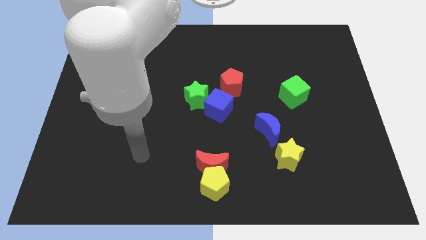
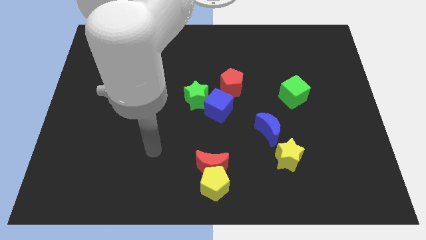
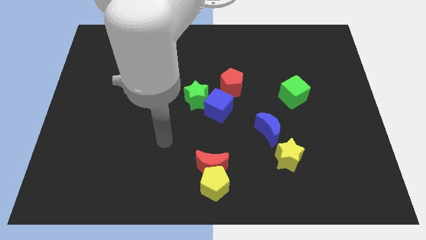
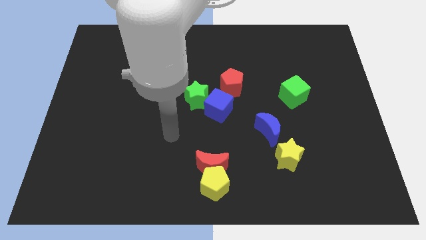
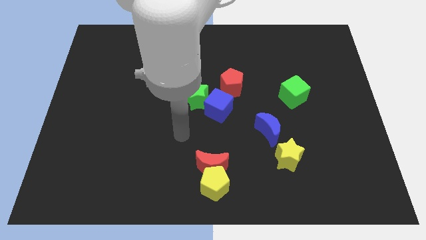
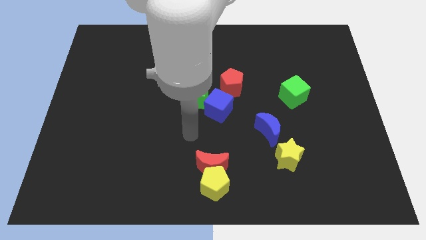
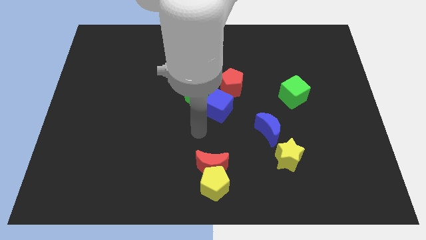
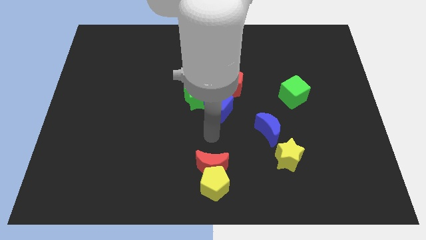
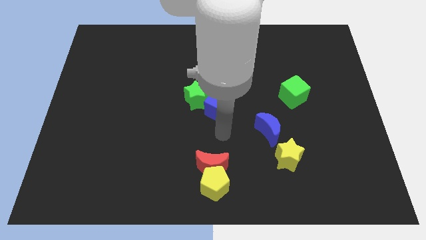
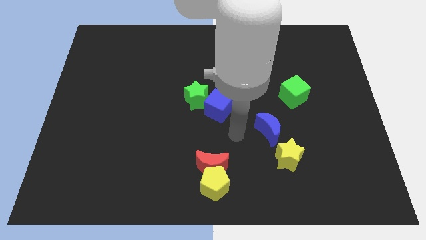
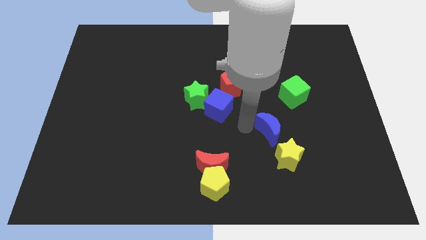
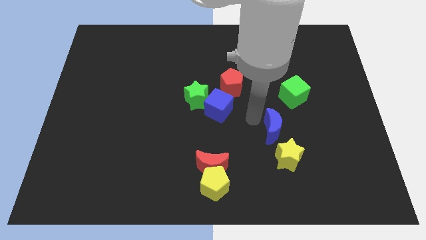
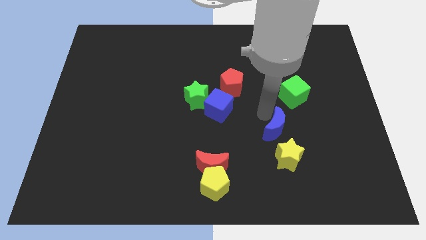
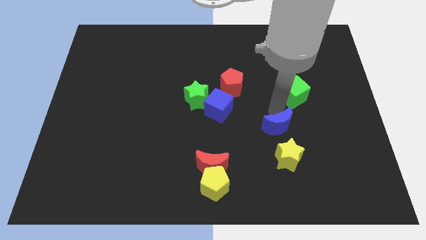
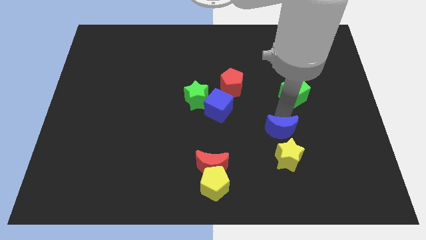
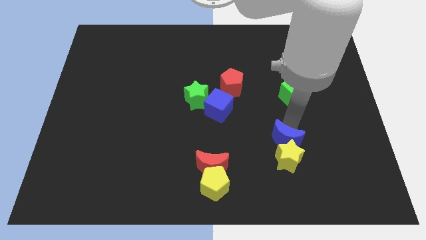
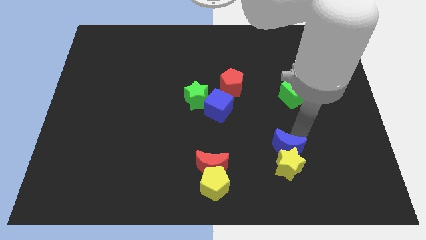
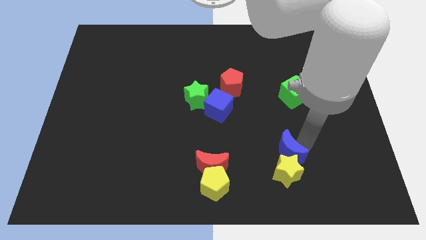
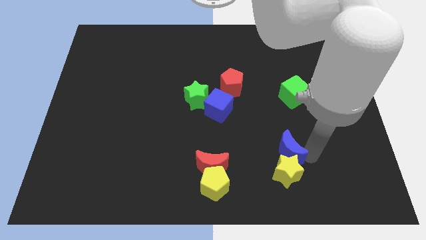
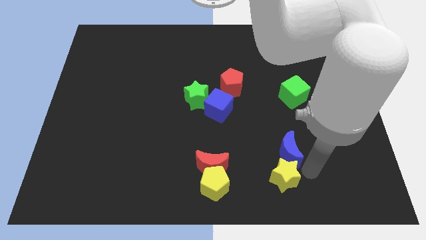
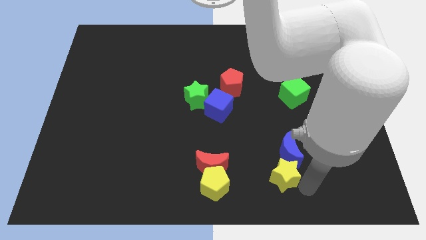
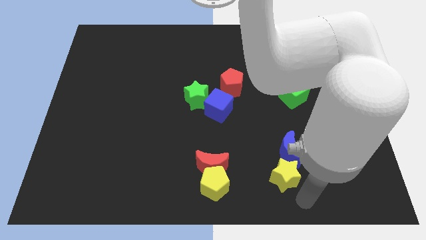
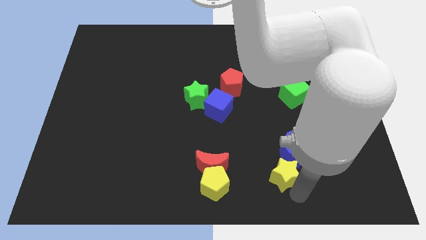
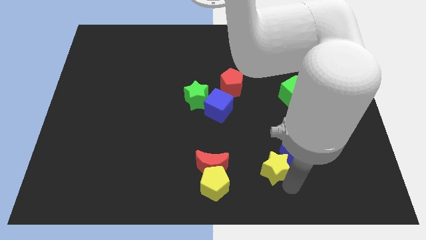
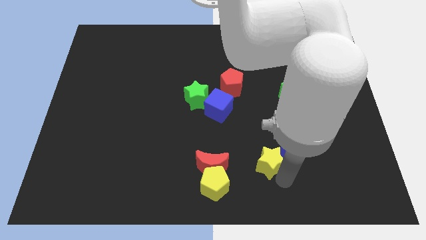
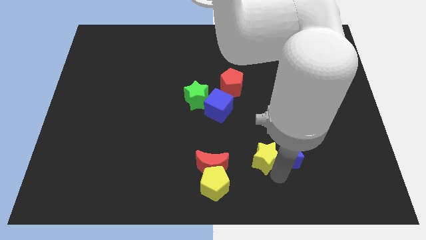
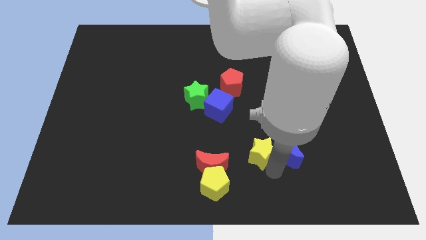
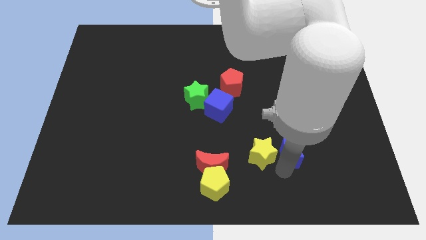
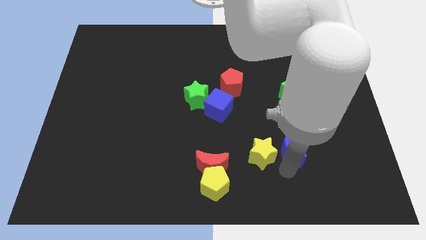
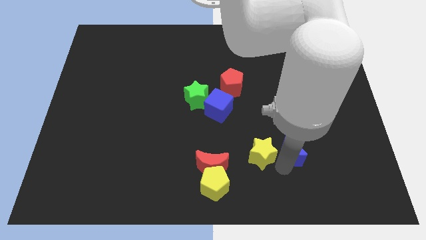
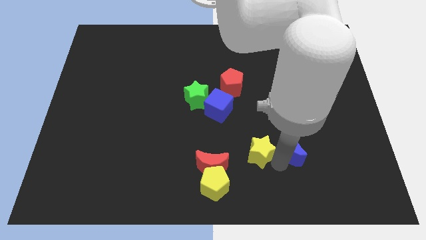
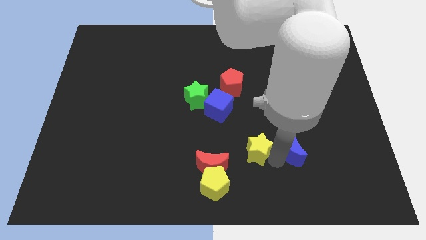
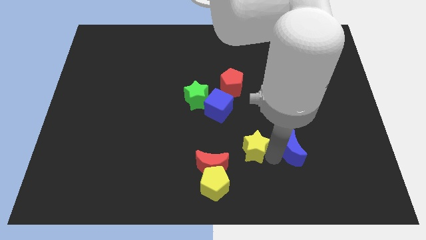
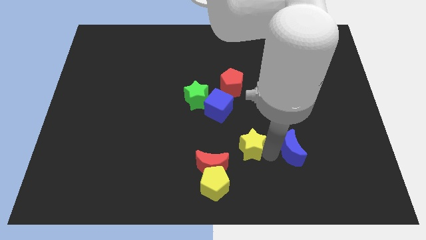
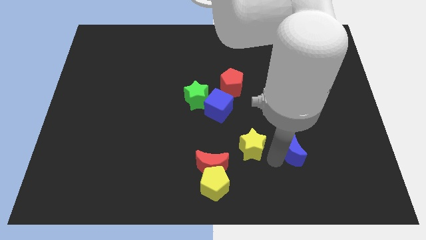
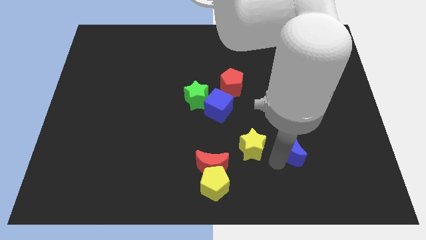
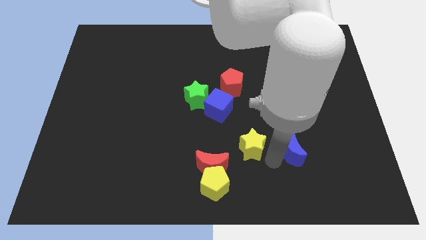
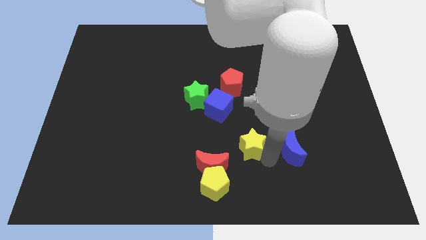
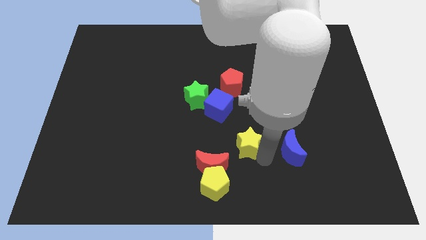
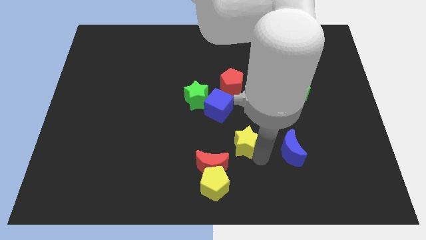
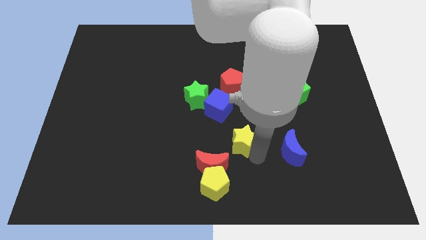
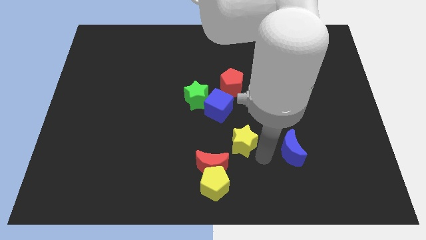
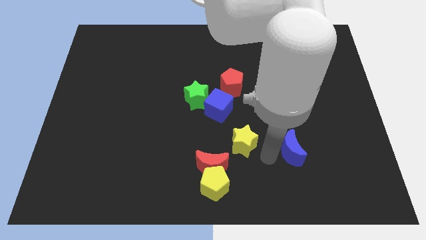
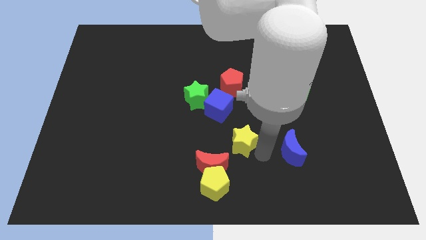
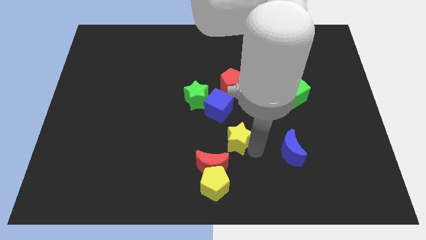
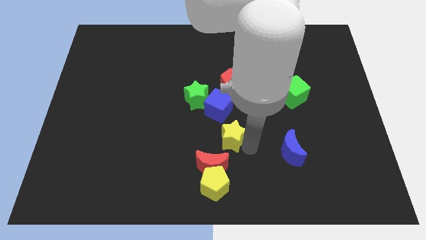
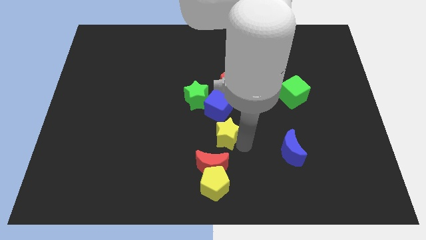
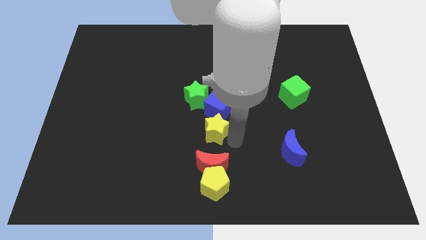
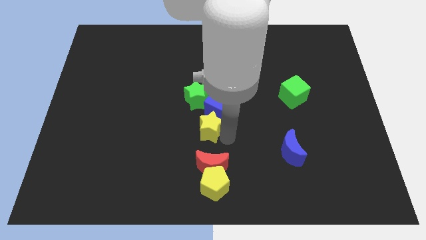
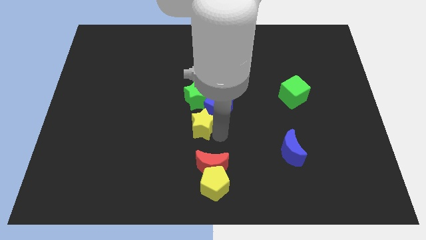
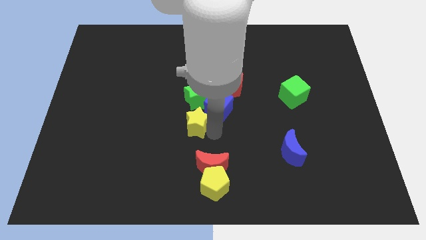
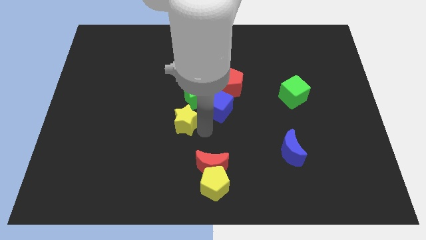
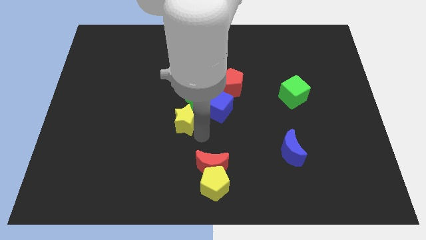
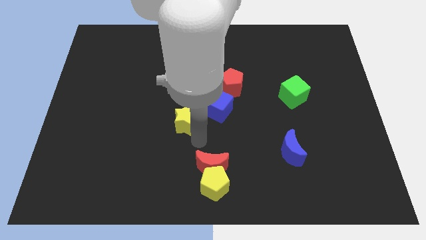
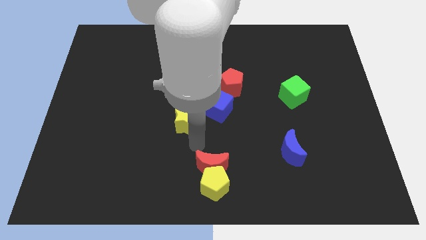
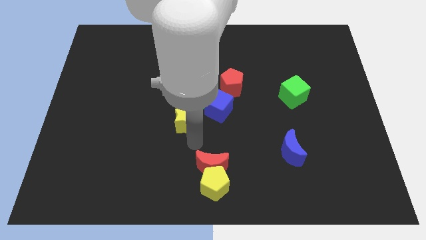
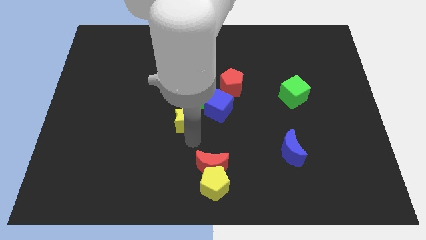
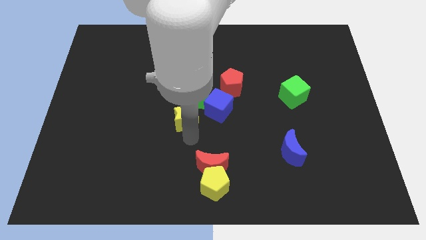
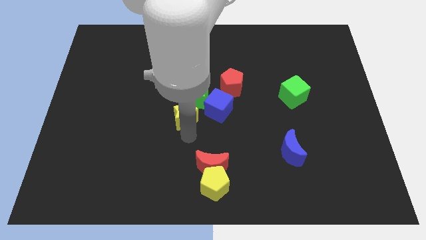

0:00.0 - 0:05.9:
push the yellow star up and to the left

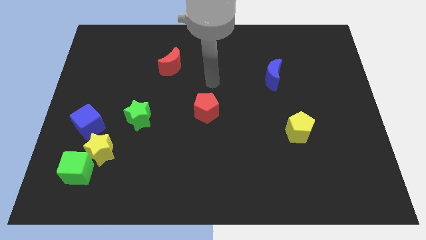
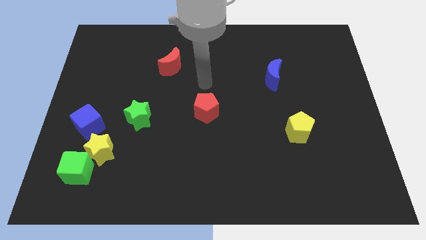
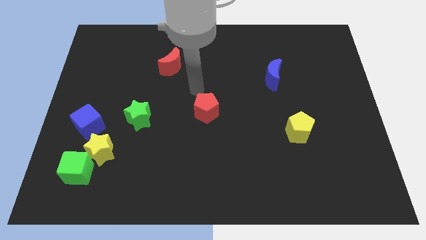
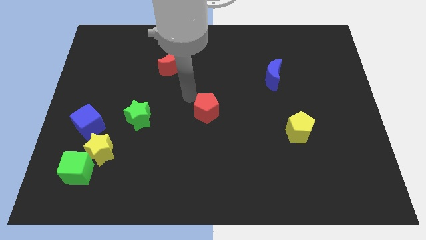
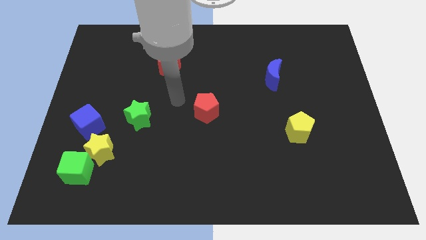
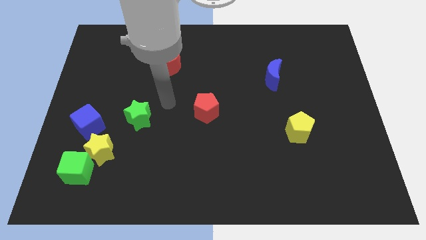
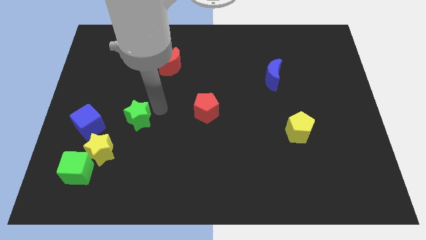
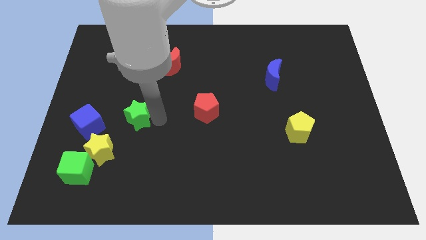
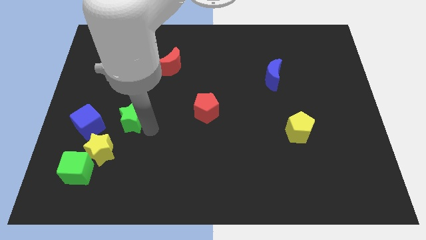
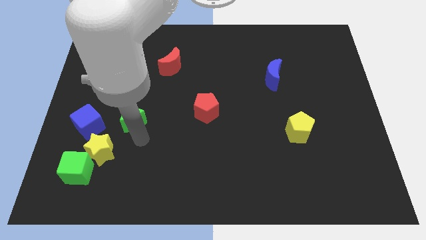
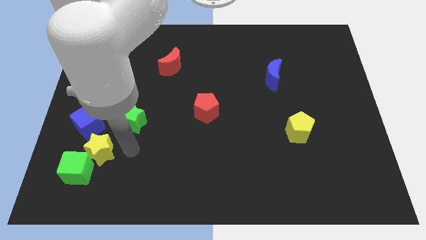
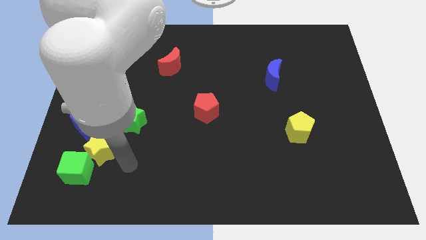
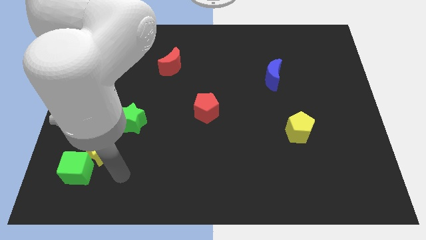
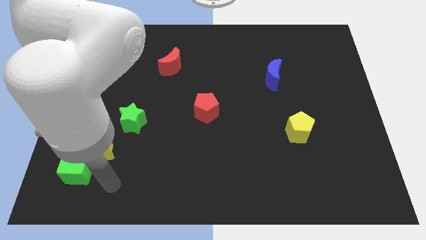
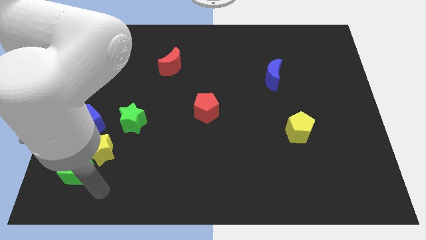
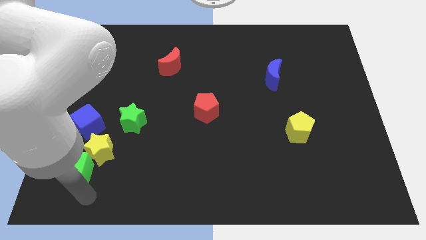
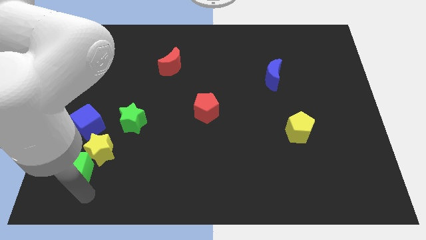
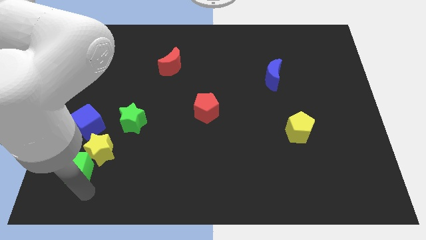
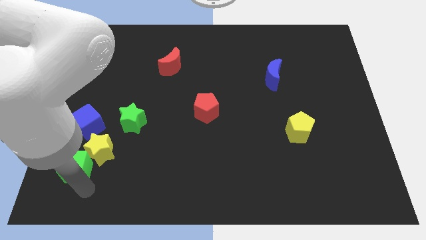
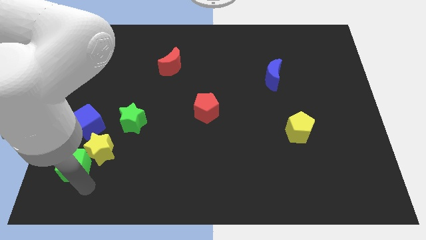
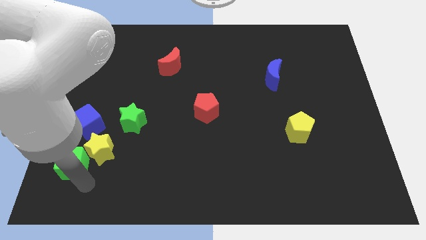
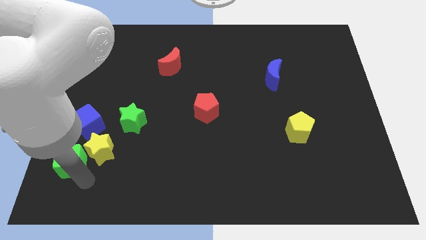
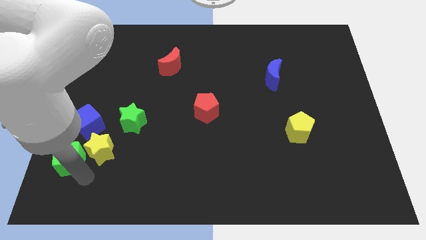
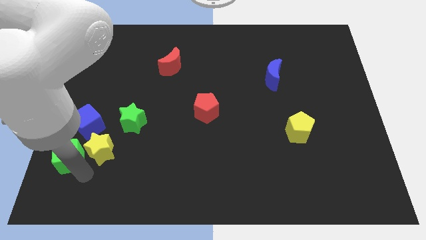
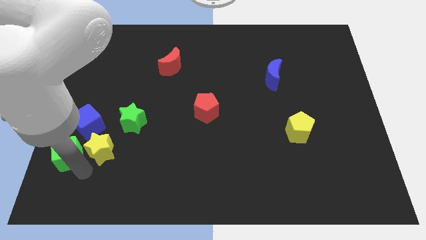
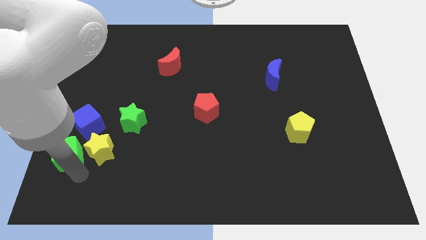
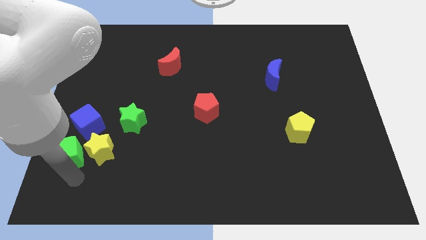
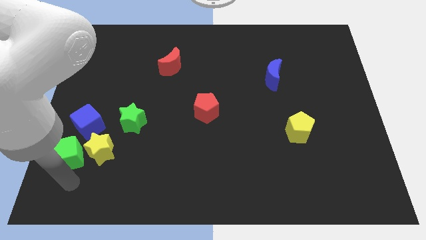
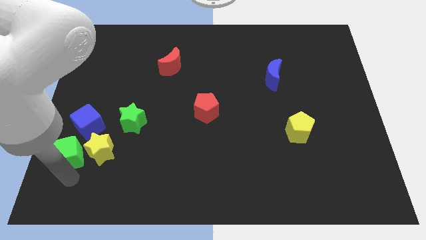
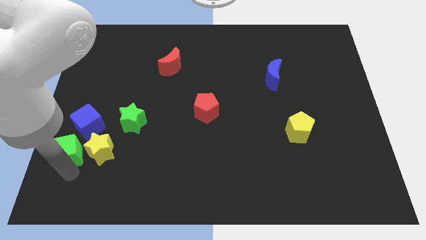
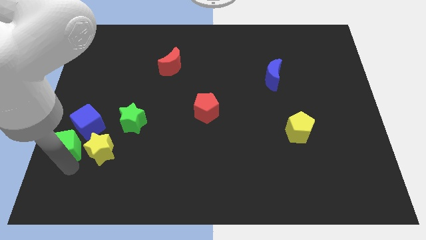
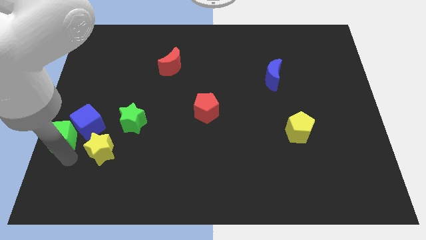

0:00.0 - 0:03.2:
push the green cube upwards somewhat
